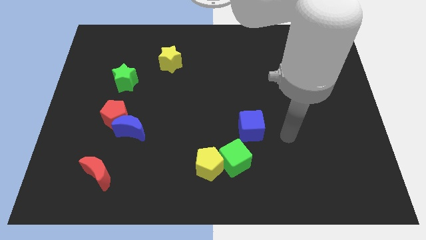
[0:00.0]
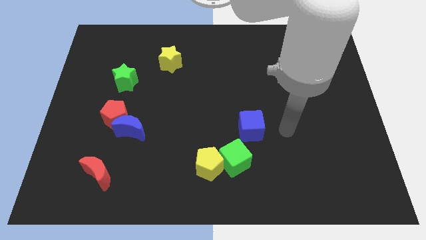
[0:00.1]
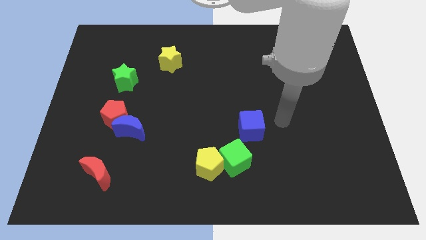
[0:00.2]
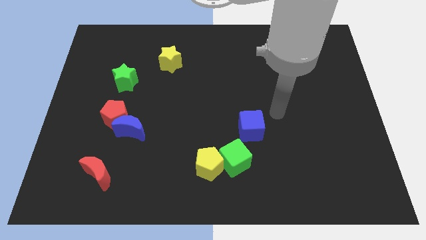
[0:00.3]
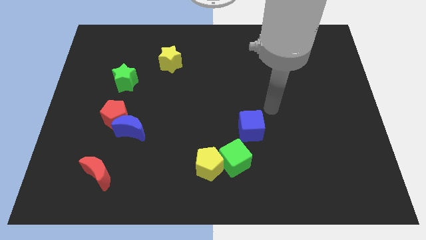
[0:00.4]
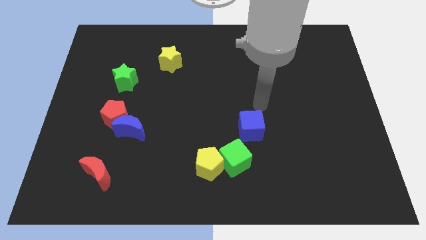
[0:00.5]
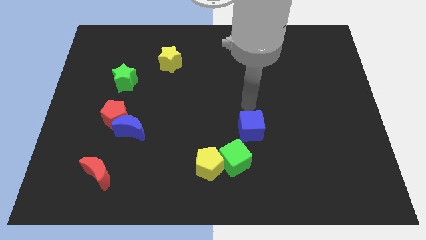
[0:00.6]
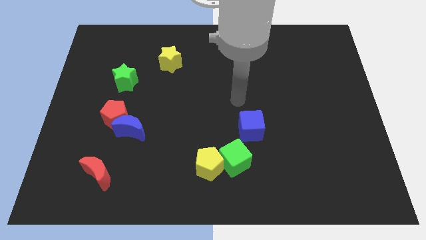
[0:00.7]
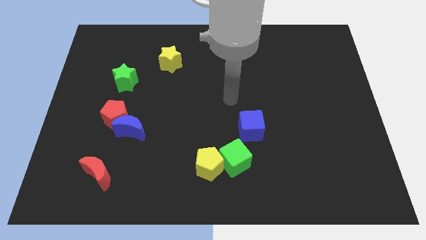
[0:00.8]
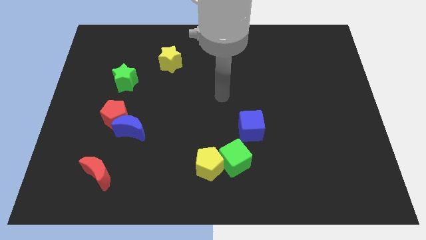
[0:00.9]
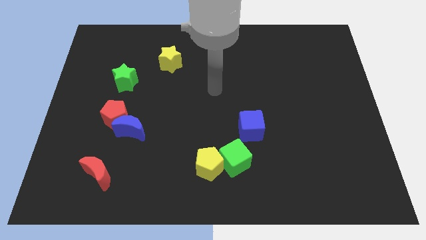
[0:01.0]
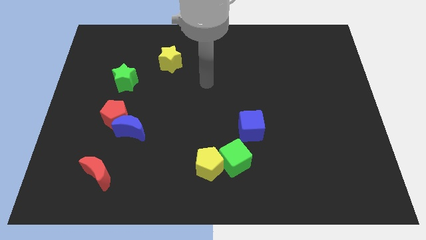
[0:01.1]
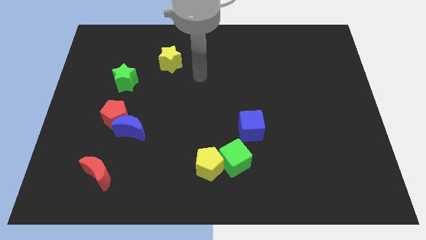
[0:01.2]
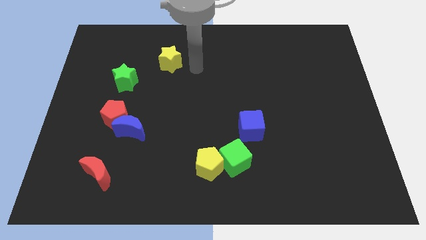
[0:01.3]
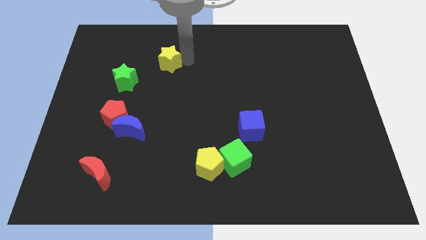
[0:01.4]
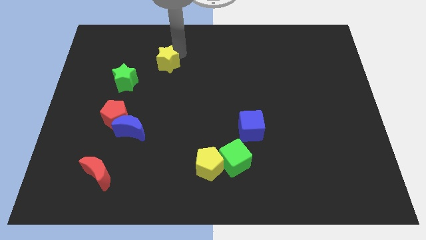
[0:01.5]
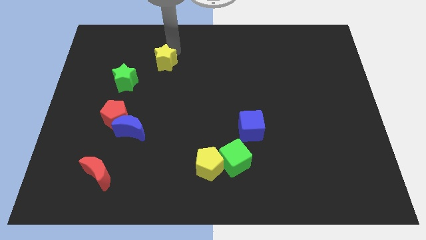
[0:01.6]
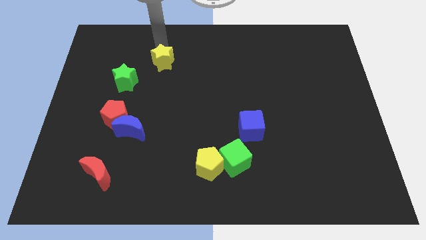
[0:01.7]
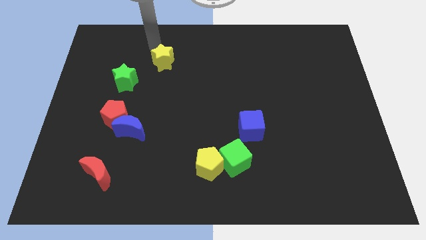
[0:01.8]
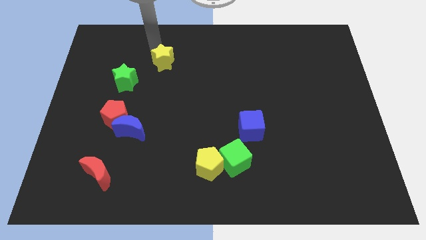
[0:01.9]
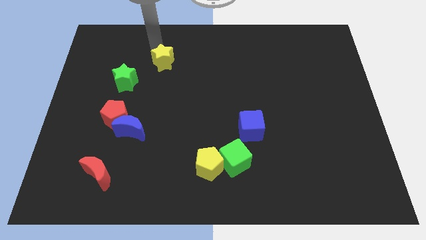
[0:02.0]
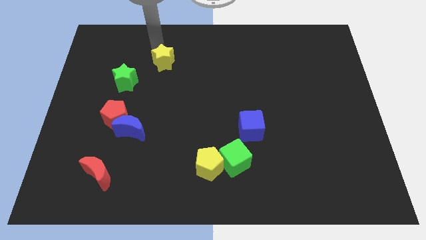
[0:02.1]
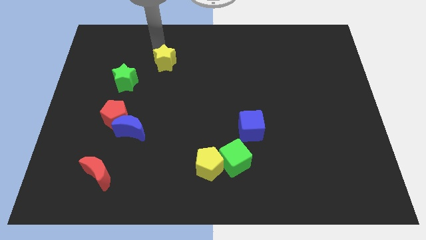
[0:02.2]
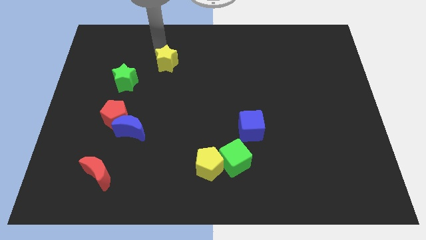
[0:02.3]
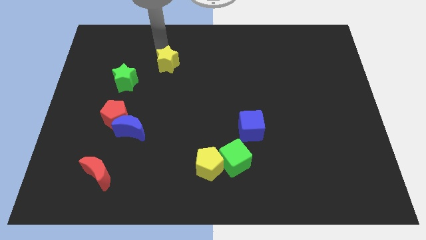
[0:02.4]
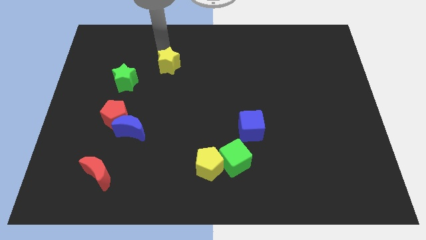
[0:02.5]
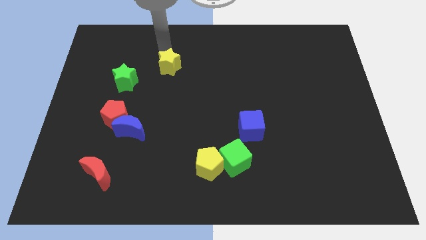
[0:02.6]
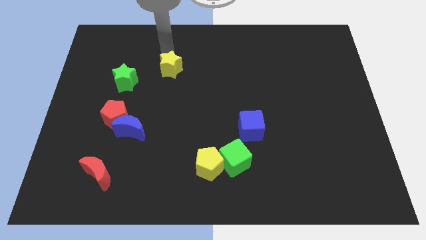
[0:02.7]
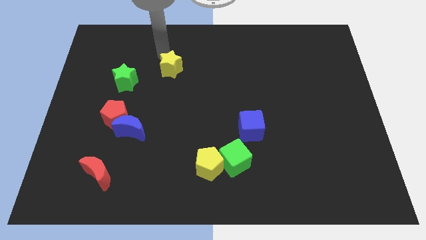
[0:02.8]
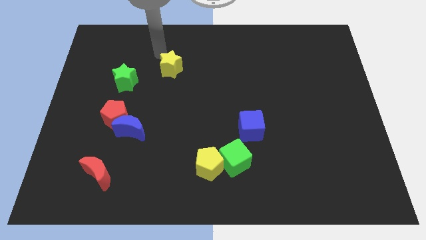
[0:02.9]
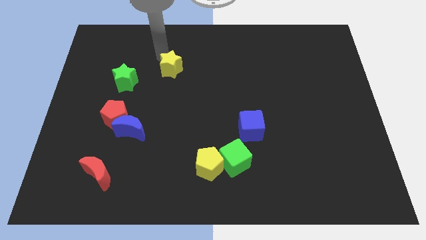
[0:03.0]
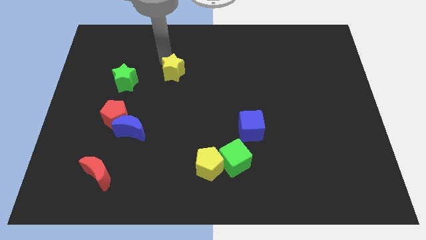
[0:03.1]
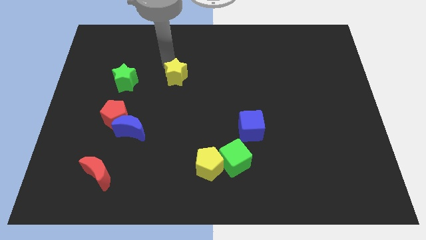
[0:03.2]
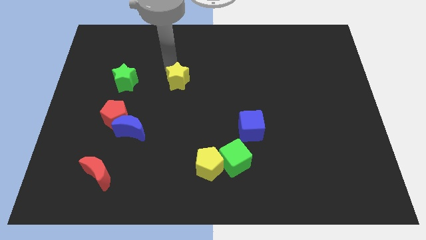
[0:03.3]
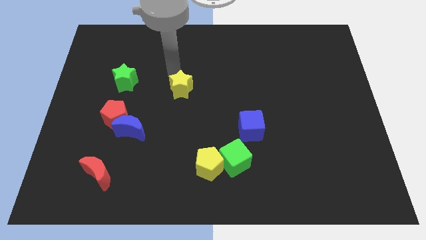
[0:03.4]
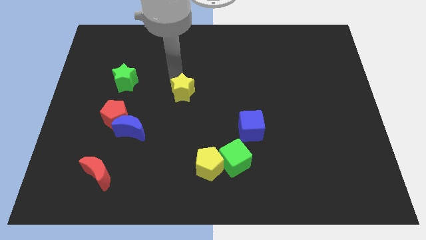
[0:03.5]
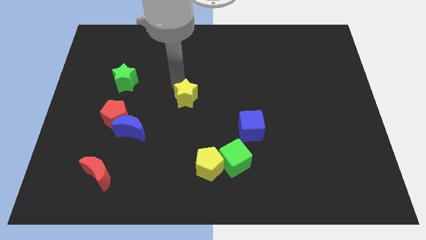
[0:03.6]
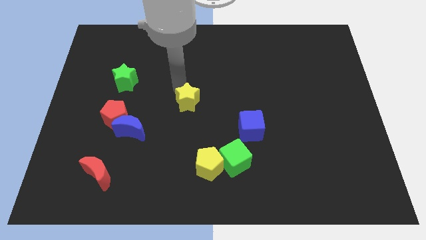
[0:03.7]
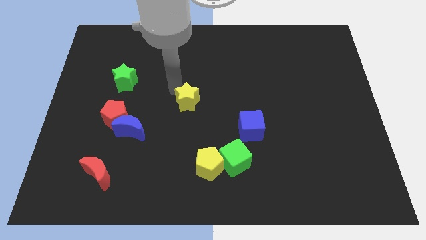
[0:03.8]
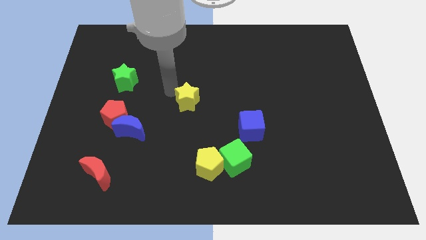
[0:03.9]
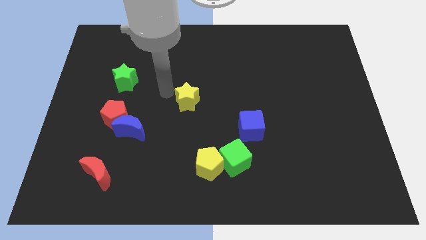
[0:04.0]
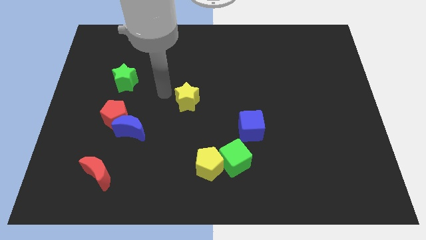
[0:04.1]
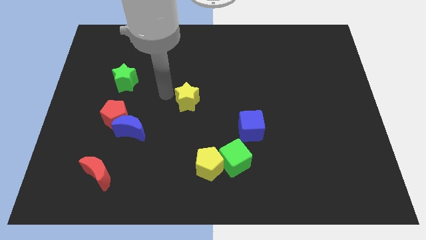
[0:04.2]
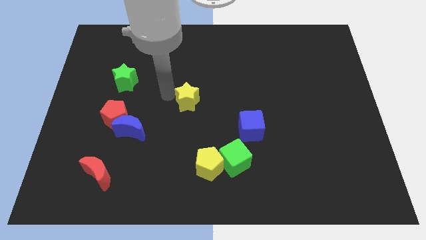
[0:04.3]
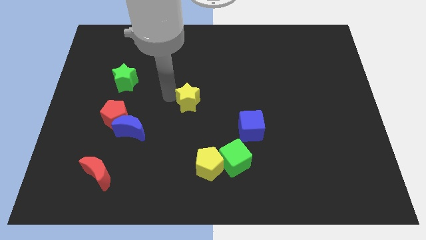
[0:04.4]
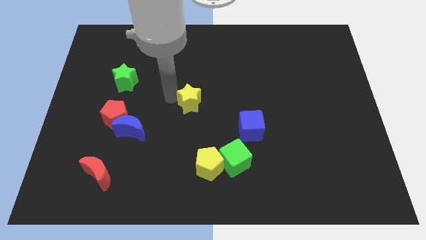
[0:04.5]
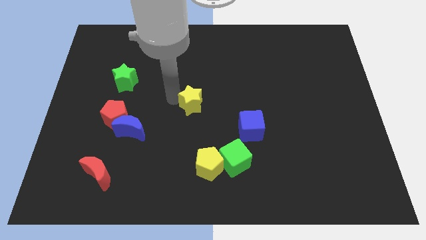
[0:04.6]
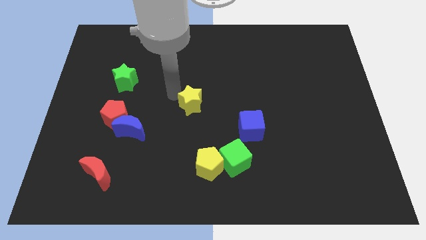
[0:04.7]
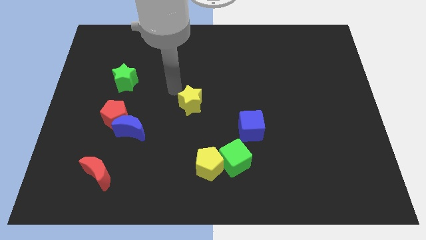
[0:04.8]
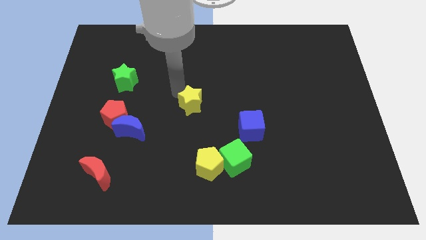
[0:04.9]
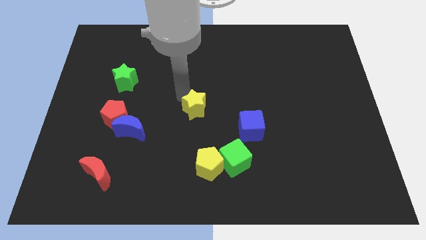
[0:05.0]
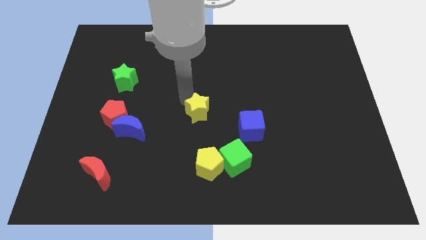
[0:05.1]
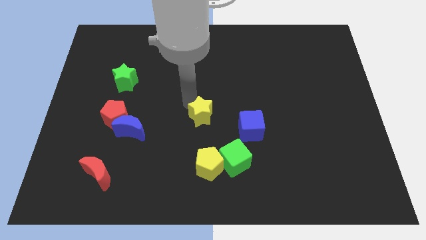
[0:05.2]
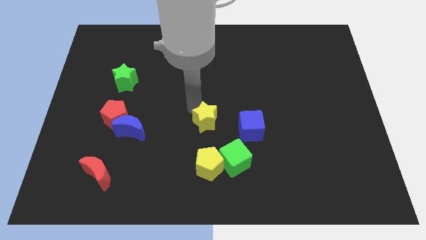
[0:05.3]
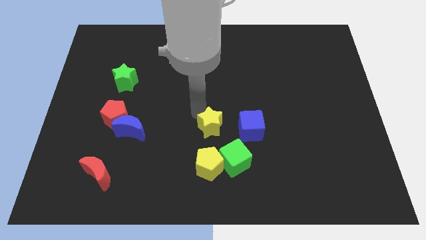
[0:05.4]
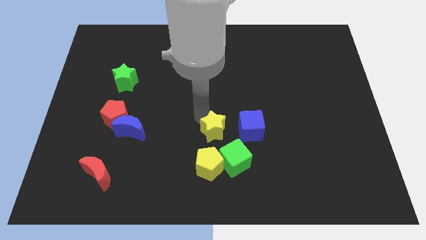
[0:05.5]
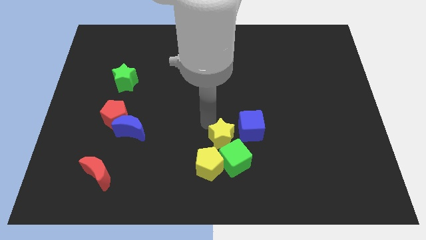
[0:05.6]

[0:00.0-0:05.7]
move the yellow star next to the green cube
